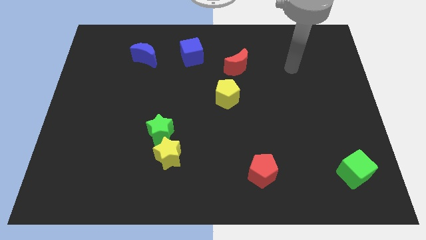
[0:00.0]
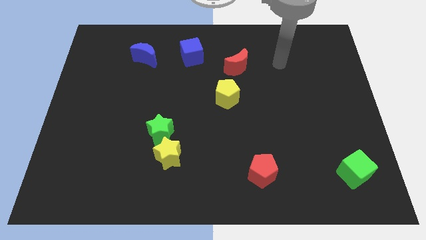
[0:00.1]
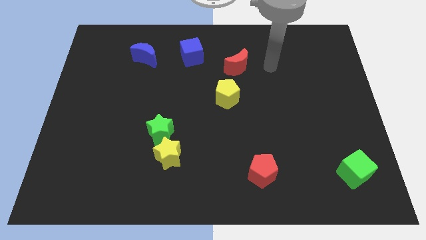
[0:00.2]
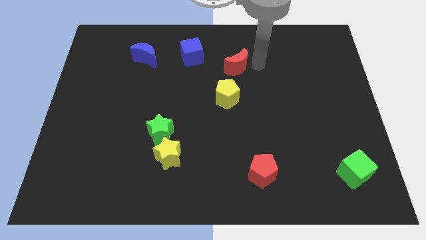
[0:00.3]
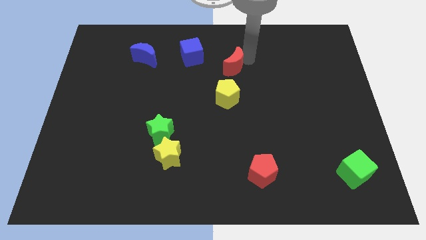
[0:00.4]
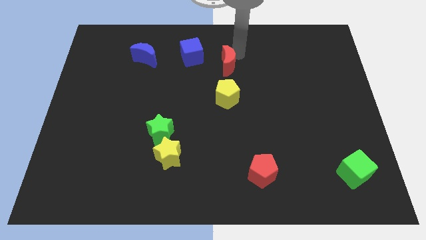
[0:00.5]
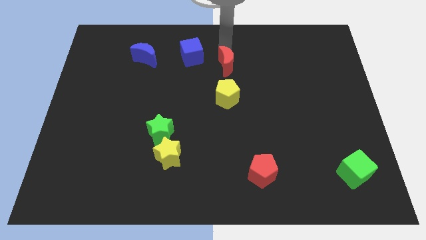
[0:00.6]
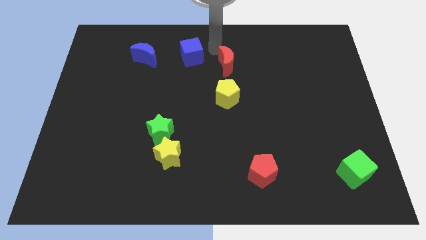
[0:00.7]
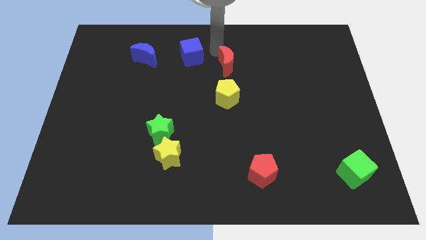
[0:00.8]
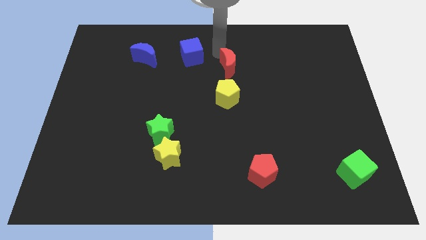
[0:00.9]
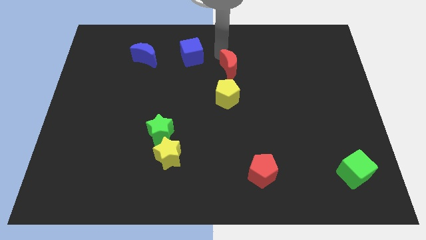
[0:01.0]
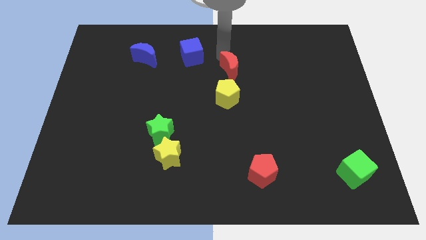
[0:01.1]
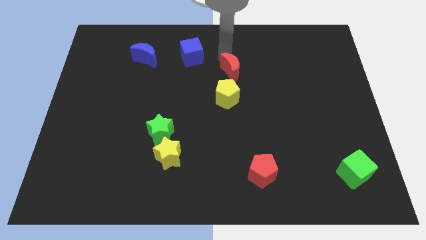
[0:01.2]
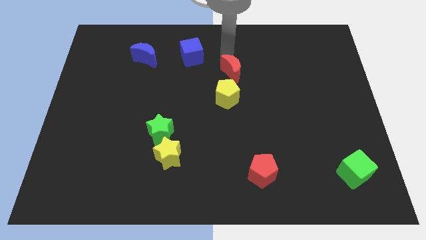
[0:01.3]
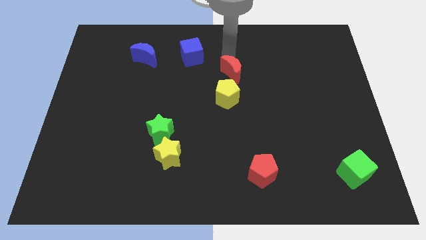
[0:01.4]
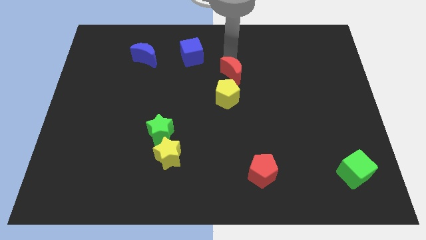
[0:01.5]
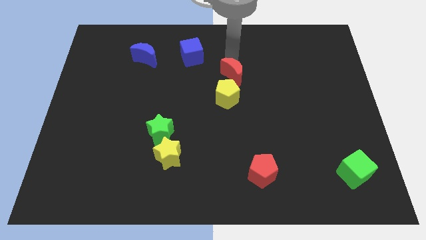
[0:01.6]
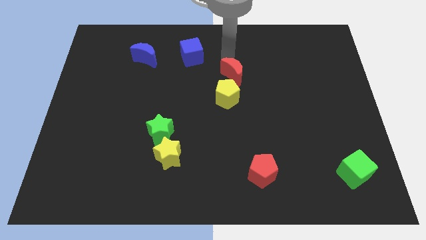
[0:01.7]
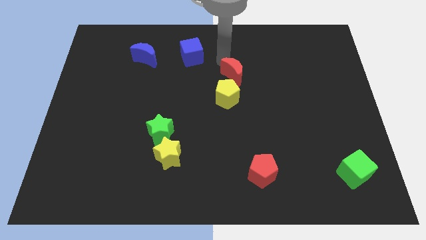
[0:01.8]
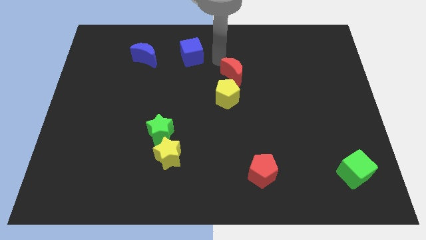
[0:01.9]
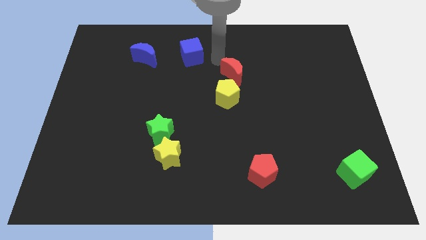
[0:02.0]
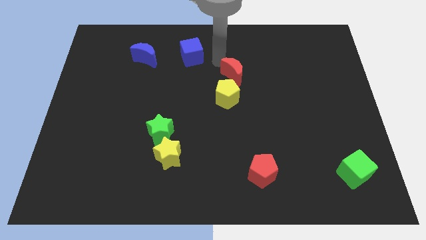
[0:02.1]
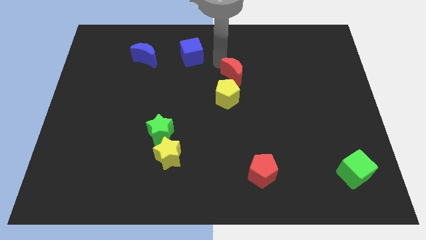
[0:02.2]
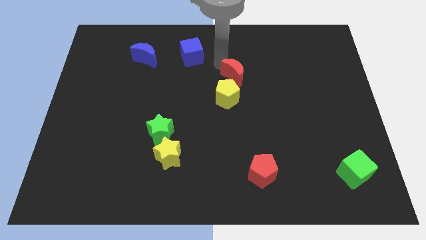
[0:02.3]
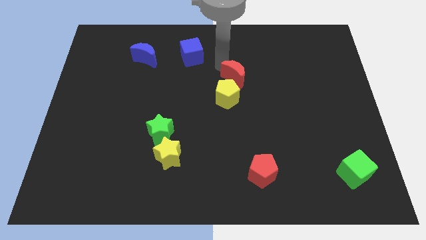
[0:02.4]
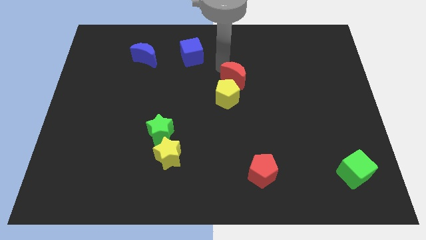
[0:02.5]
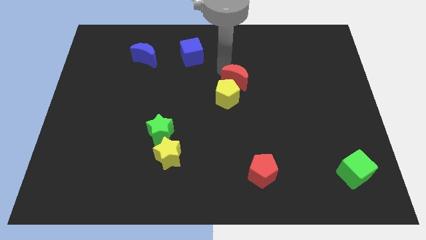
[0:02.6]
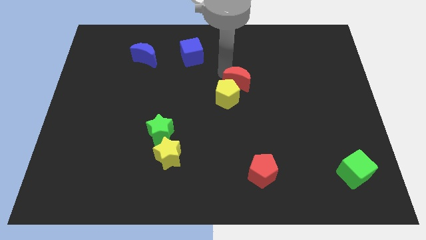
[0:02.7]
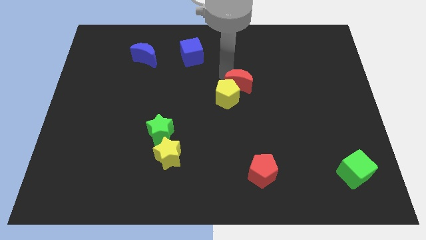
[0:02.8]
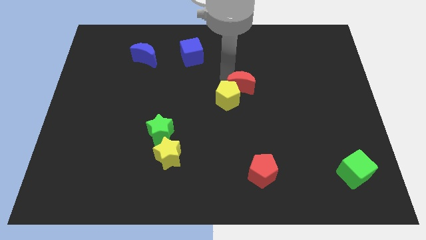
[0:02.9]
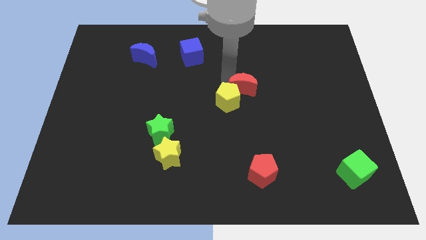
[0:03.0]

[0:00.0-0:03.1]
push the red moon downwards a little

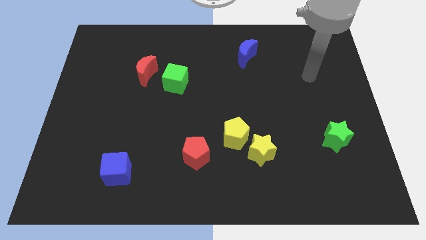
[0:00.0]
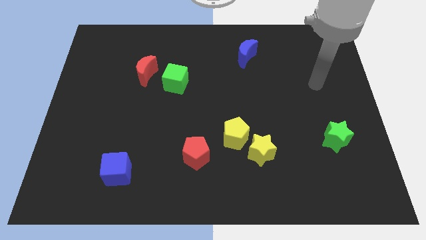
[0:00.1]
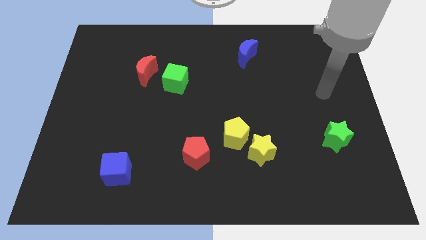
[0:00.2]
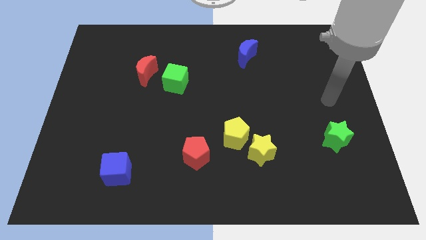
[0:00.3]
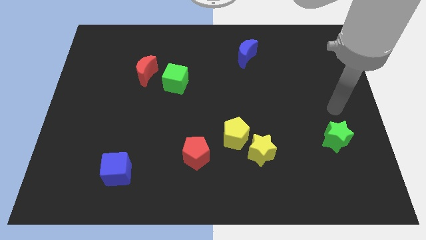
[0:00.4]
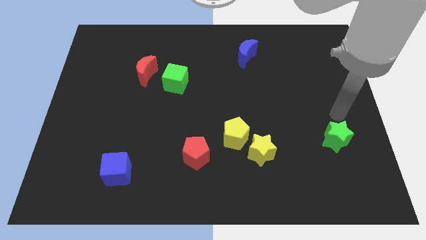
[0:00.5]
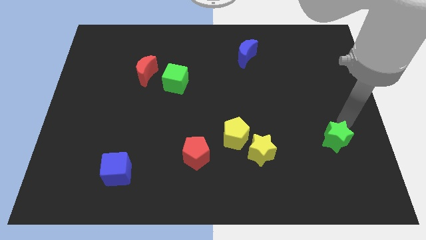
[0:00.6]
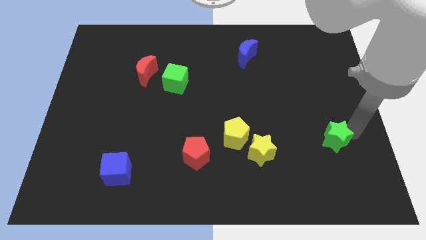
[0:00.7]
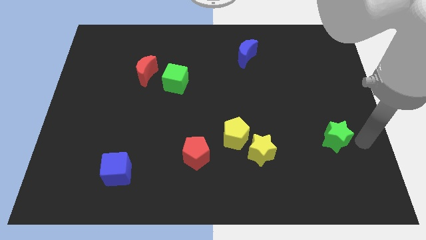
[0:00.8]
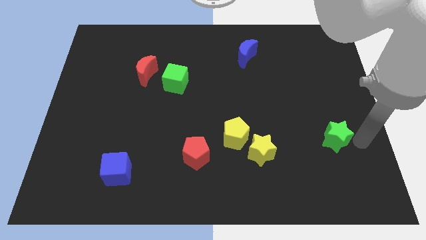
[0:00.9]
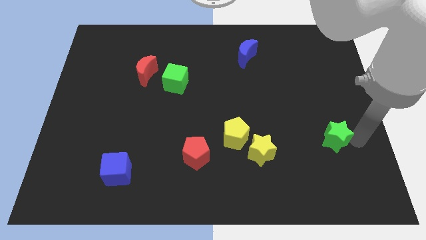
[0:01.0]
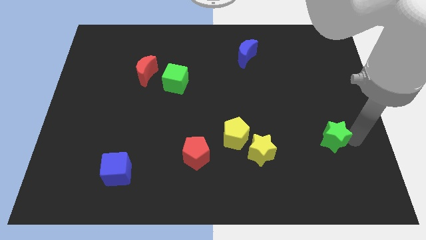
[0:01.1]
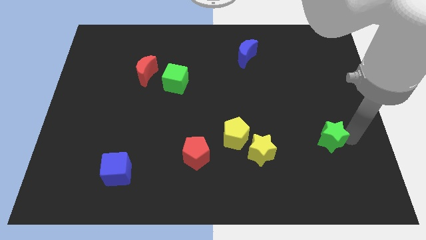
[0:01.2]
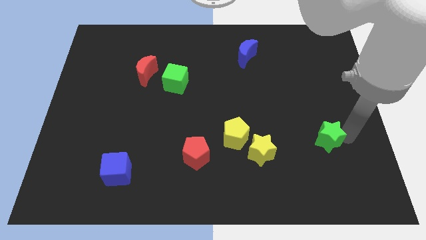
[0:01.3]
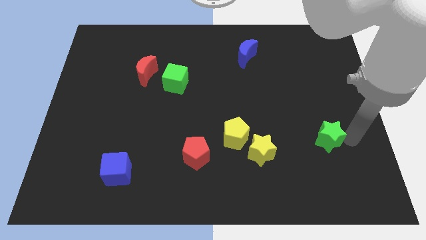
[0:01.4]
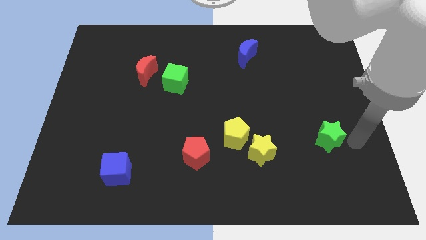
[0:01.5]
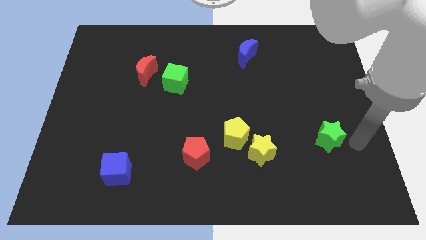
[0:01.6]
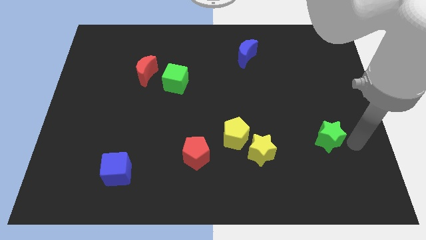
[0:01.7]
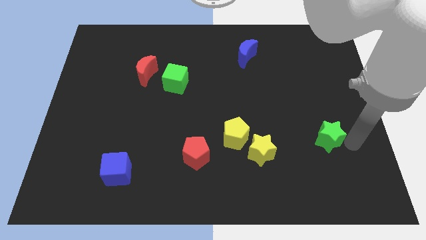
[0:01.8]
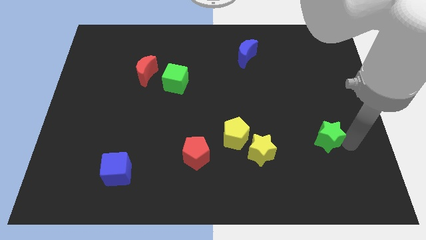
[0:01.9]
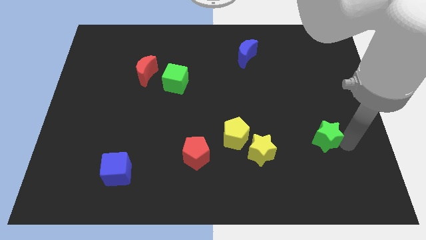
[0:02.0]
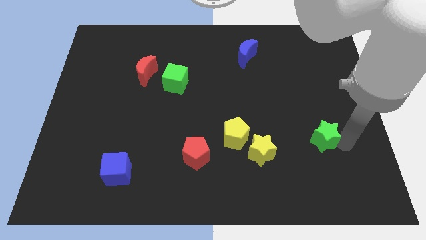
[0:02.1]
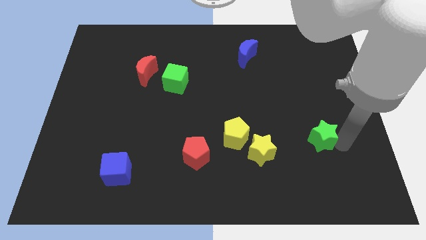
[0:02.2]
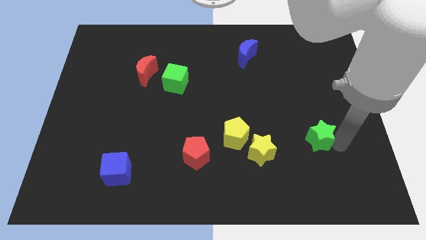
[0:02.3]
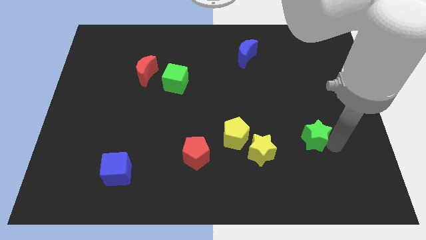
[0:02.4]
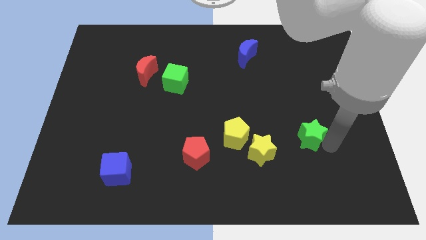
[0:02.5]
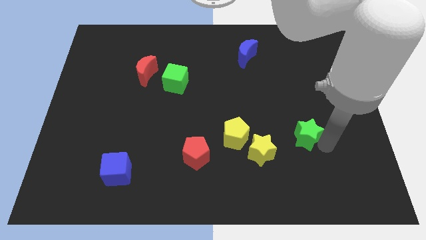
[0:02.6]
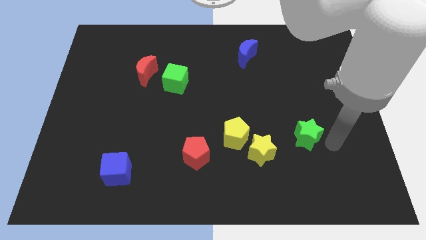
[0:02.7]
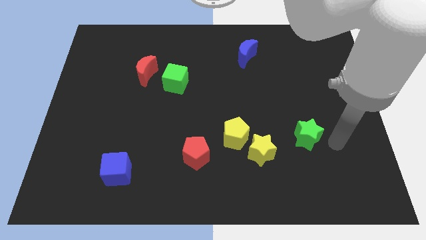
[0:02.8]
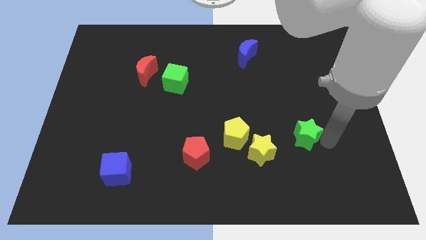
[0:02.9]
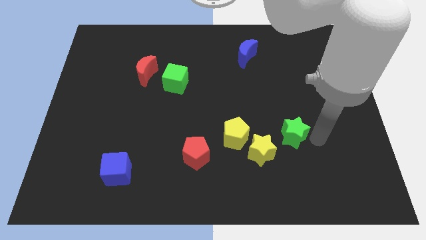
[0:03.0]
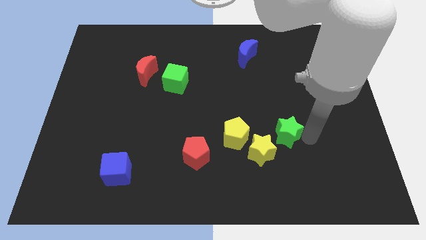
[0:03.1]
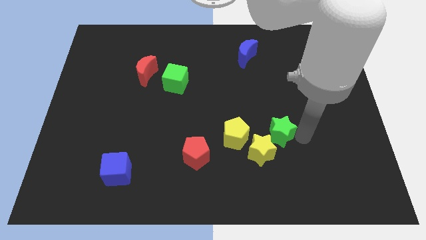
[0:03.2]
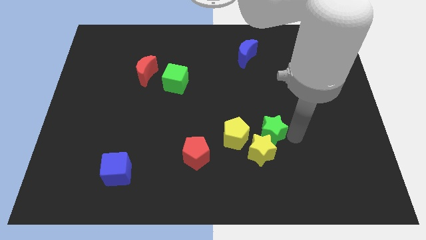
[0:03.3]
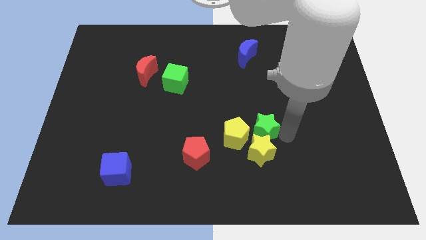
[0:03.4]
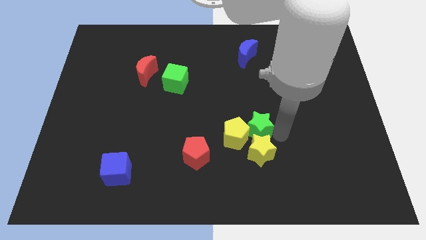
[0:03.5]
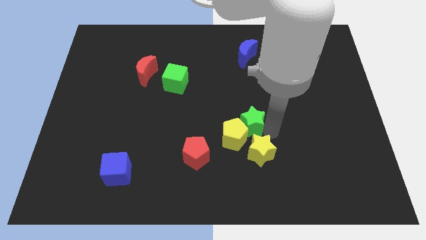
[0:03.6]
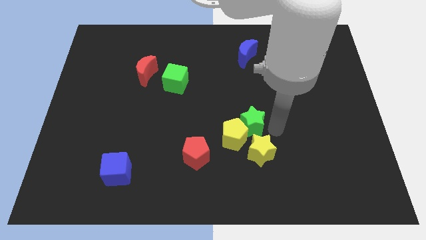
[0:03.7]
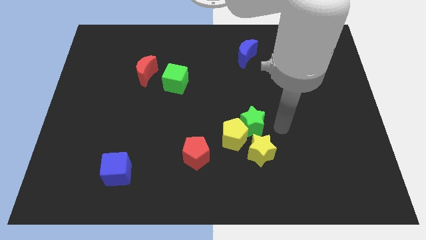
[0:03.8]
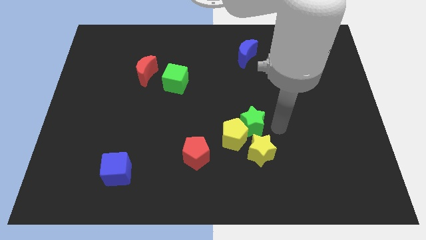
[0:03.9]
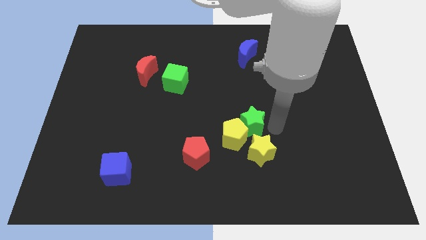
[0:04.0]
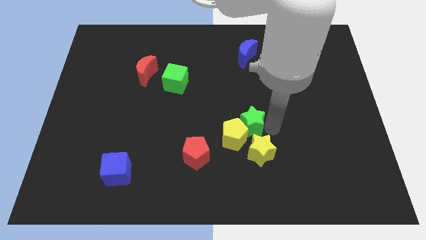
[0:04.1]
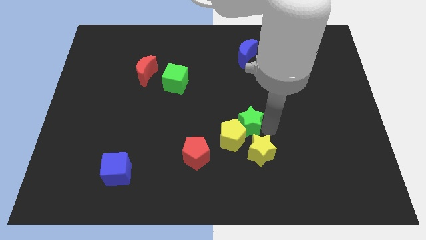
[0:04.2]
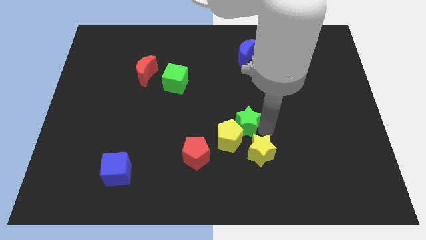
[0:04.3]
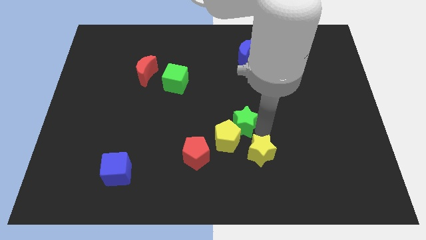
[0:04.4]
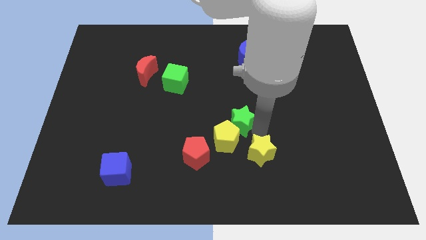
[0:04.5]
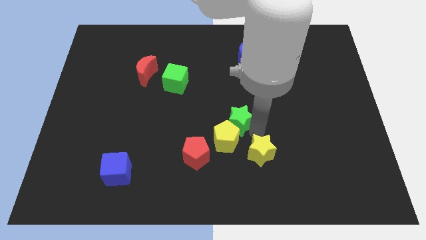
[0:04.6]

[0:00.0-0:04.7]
slide the green star left

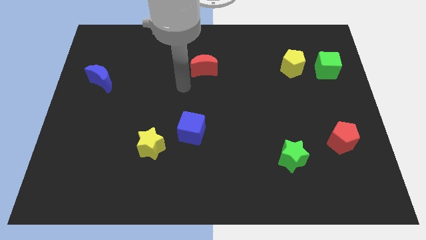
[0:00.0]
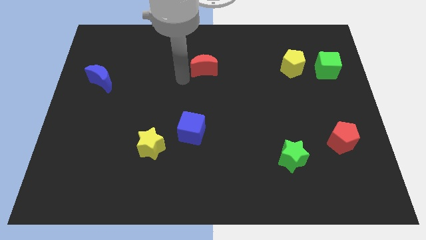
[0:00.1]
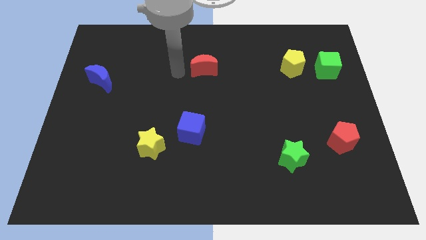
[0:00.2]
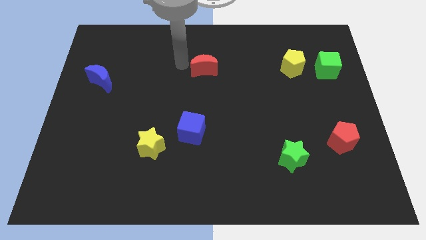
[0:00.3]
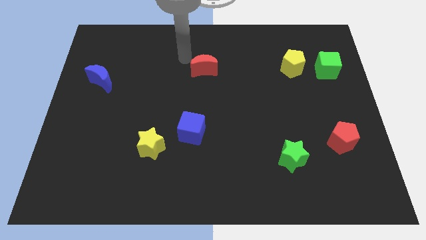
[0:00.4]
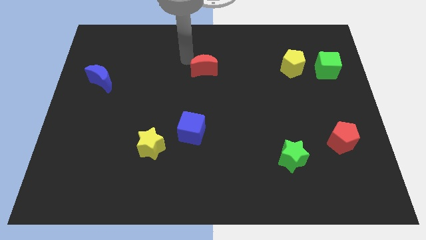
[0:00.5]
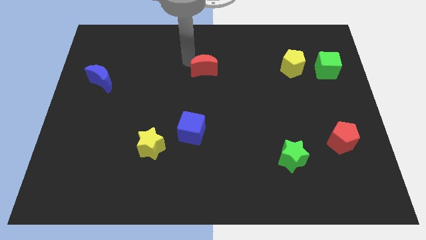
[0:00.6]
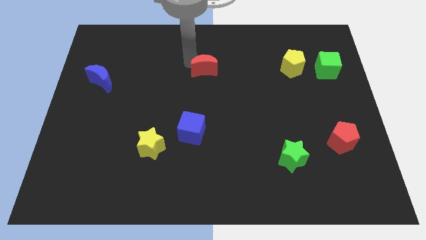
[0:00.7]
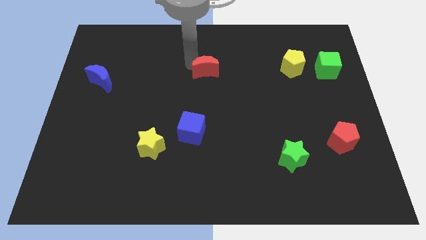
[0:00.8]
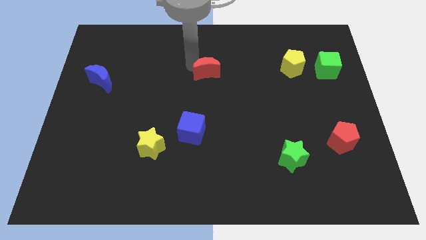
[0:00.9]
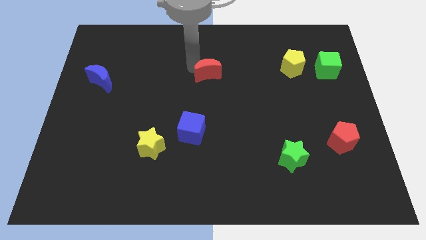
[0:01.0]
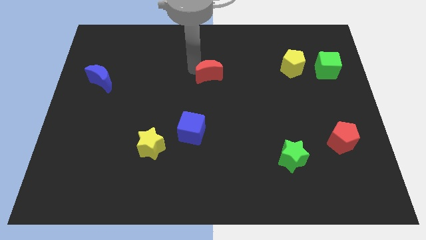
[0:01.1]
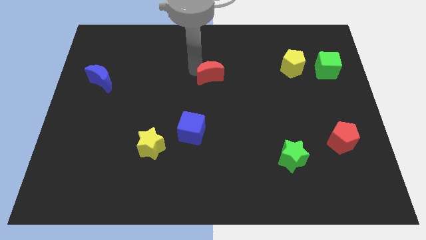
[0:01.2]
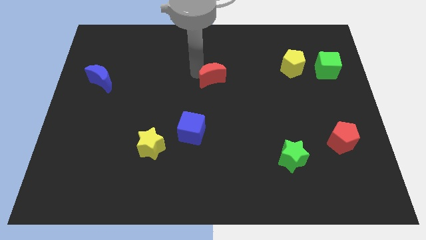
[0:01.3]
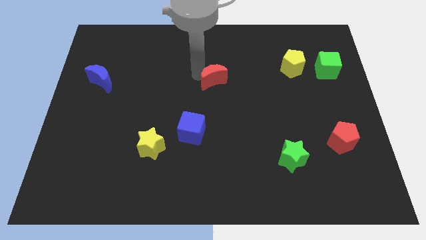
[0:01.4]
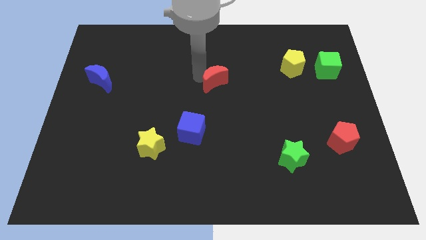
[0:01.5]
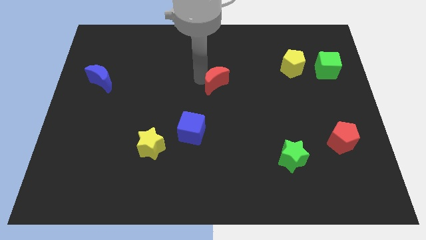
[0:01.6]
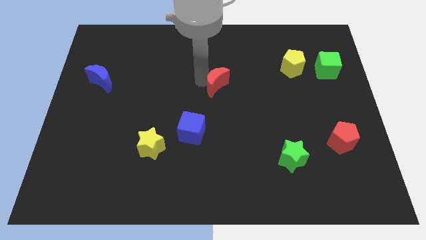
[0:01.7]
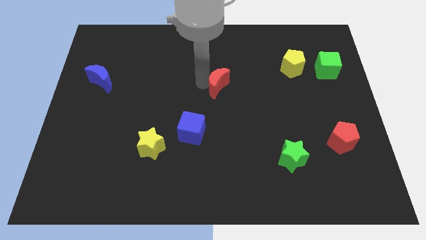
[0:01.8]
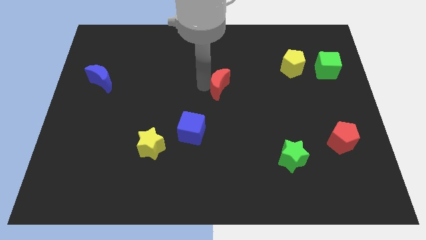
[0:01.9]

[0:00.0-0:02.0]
slide the red moon slightly downwards and then to the right
